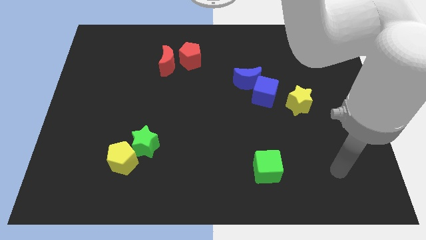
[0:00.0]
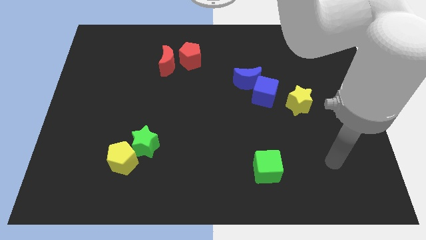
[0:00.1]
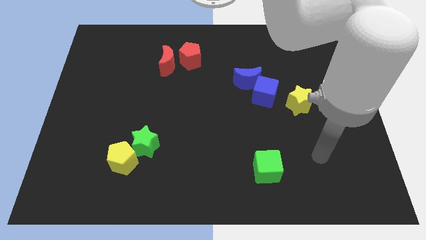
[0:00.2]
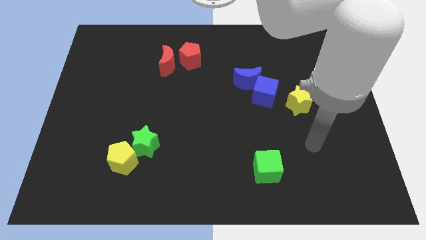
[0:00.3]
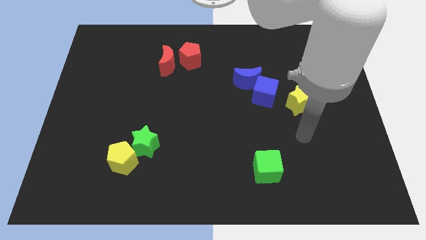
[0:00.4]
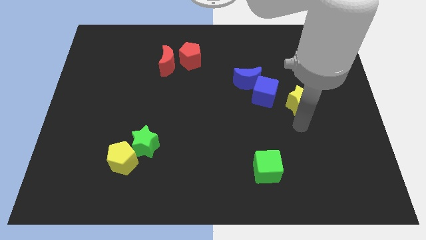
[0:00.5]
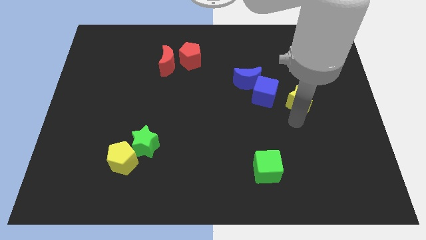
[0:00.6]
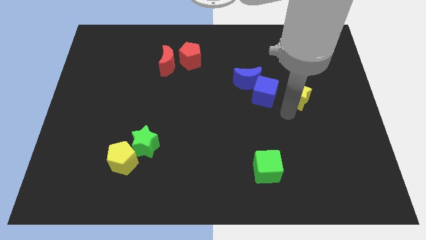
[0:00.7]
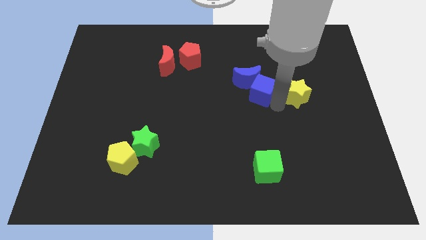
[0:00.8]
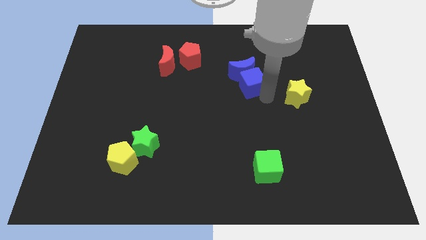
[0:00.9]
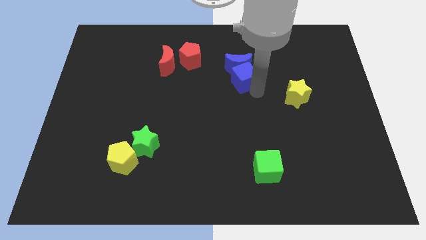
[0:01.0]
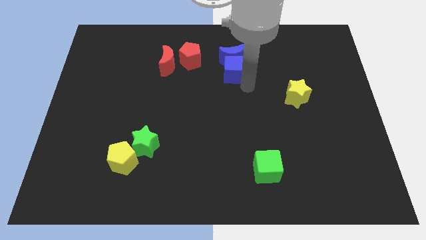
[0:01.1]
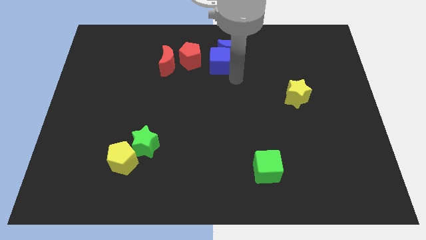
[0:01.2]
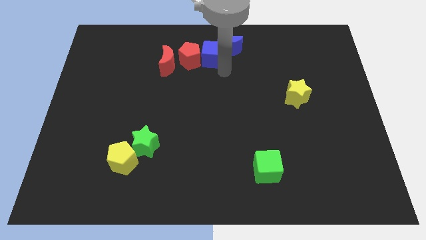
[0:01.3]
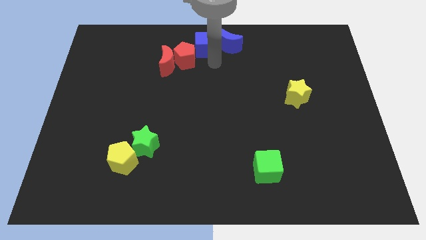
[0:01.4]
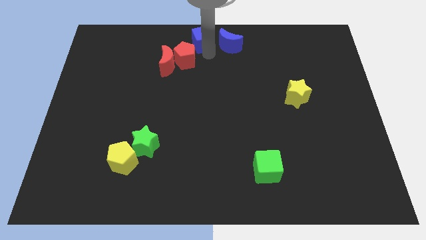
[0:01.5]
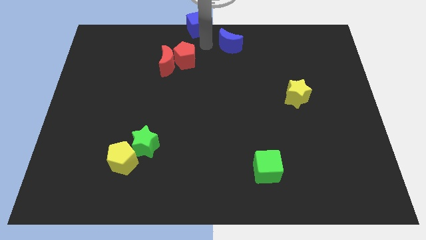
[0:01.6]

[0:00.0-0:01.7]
separate the blue moon from the blue cube

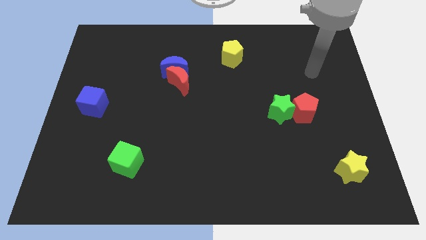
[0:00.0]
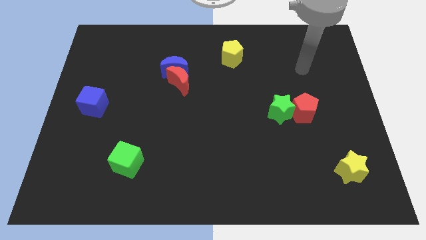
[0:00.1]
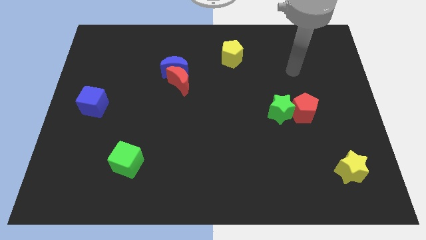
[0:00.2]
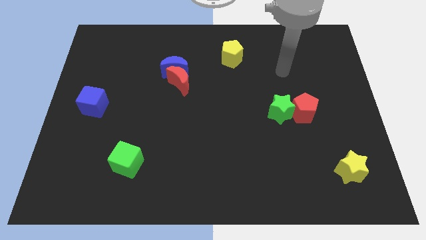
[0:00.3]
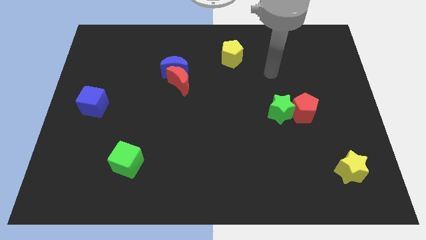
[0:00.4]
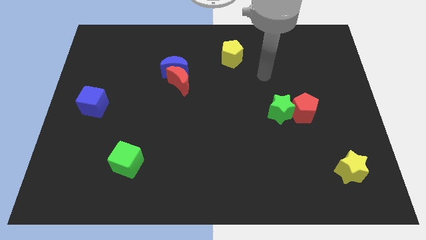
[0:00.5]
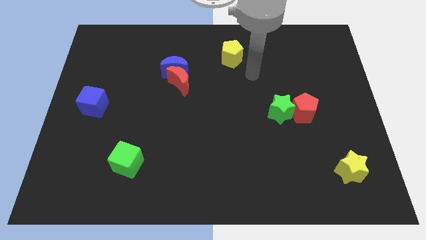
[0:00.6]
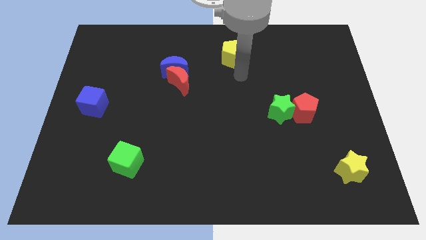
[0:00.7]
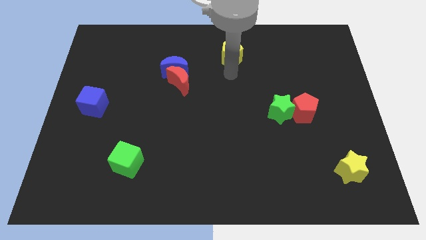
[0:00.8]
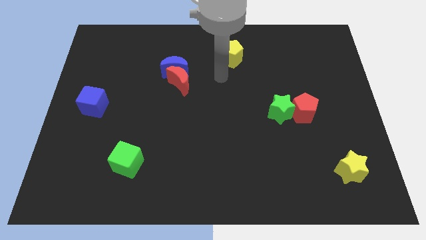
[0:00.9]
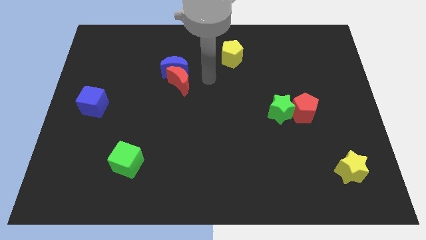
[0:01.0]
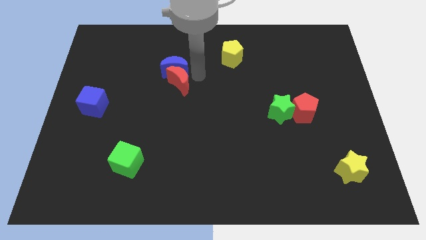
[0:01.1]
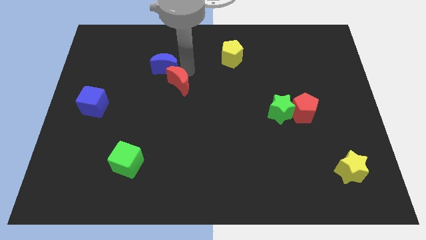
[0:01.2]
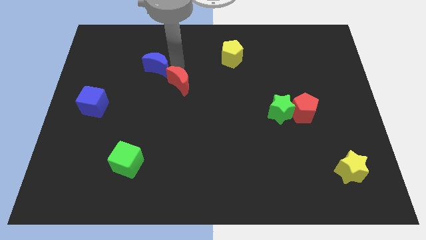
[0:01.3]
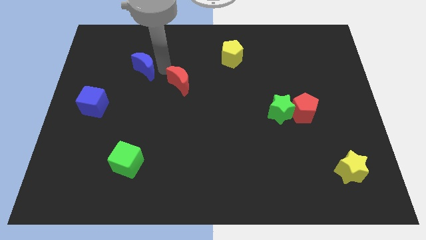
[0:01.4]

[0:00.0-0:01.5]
move the red moon away from the blue moon

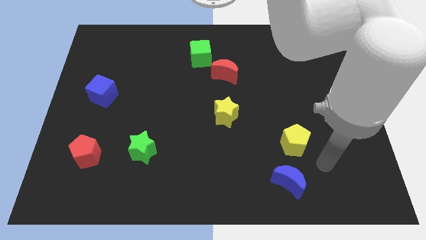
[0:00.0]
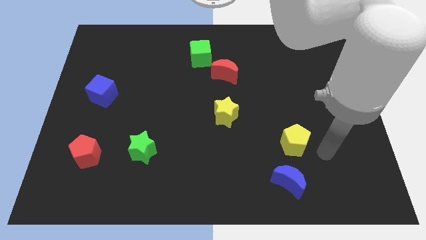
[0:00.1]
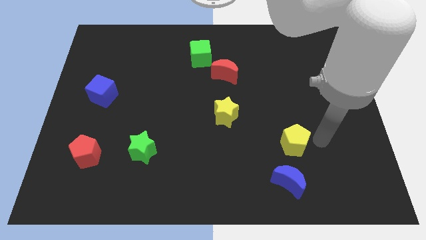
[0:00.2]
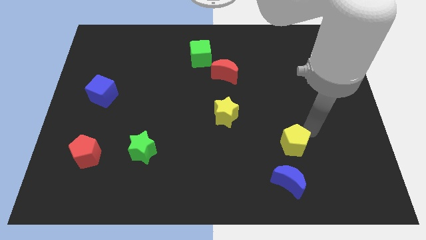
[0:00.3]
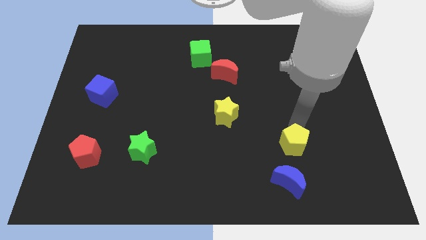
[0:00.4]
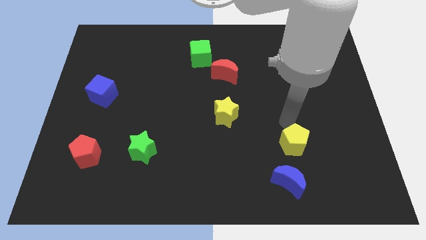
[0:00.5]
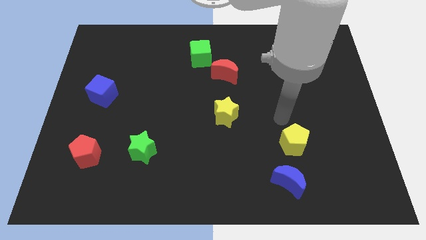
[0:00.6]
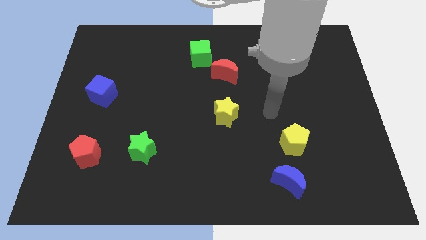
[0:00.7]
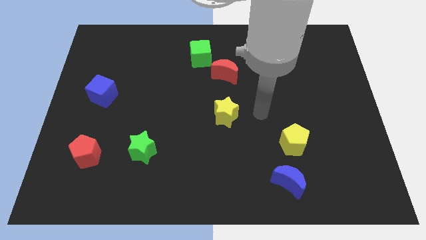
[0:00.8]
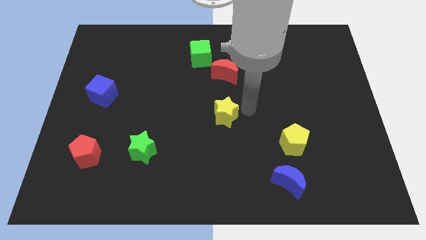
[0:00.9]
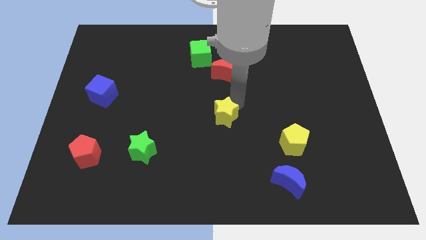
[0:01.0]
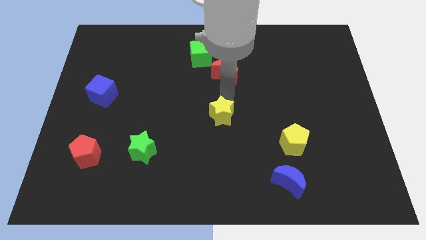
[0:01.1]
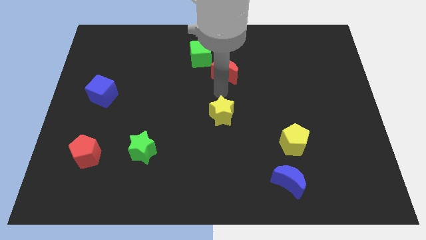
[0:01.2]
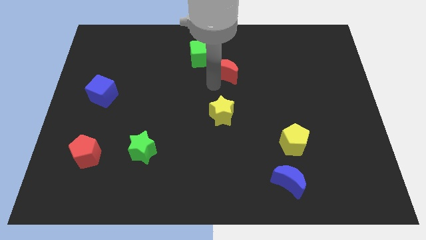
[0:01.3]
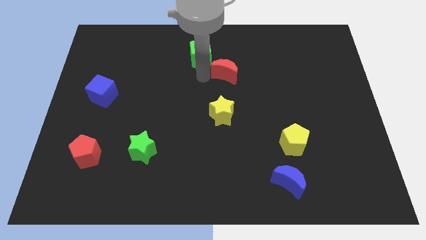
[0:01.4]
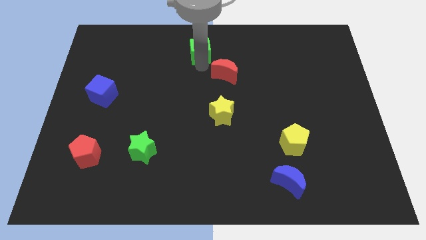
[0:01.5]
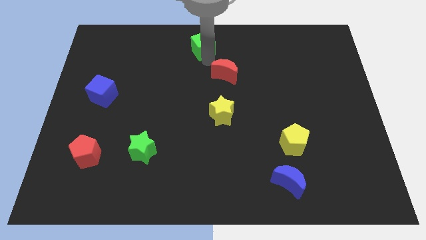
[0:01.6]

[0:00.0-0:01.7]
move the red moon away from the green cube

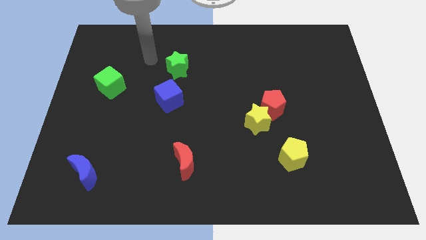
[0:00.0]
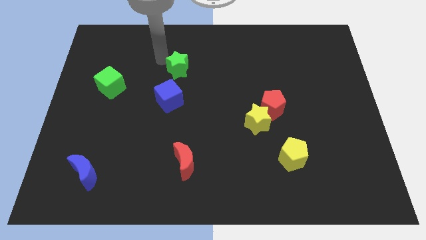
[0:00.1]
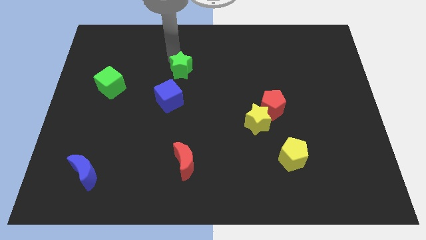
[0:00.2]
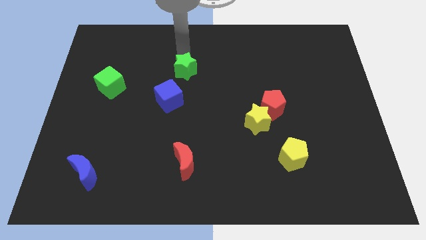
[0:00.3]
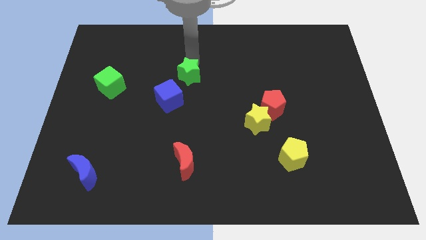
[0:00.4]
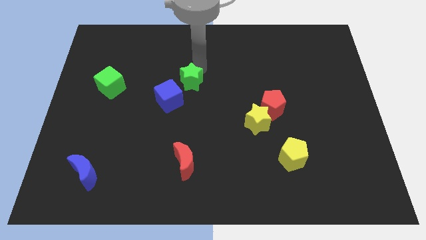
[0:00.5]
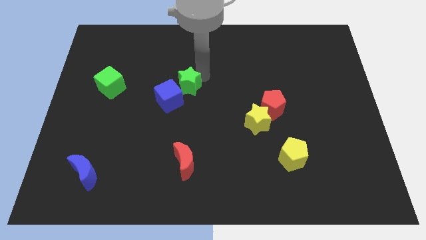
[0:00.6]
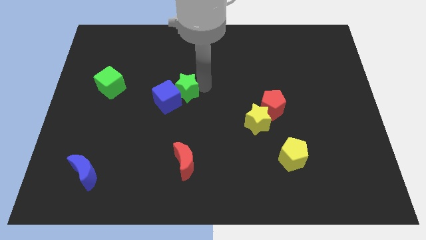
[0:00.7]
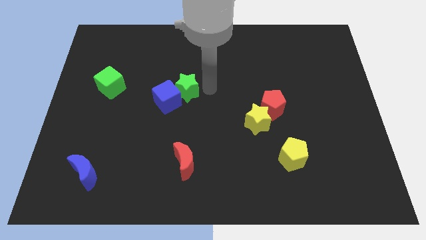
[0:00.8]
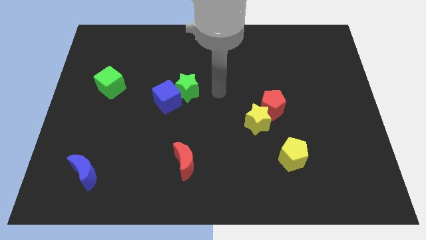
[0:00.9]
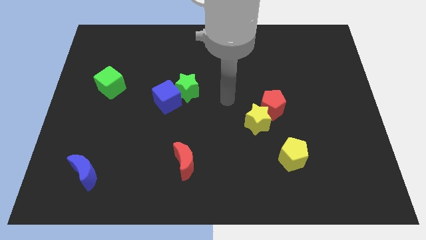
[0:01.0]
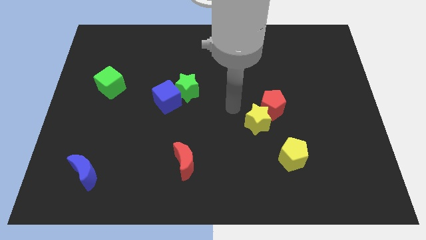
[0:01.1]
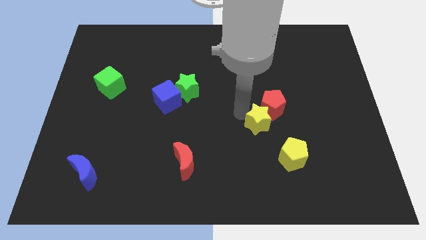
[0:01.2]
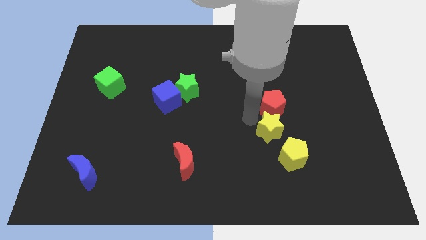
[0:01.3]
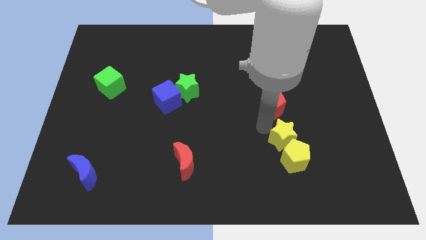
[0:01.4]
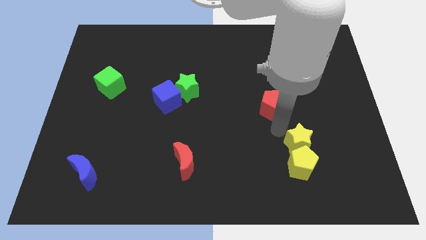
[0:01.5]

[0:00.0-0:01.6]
pull the red pentagon apart from the yellow star

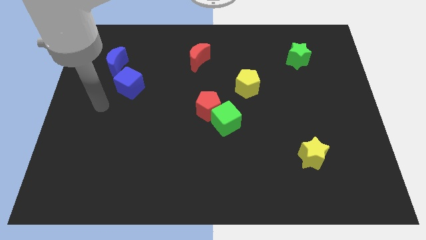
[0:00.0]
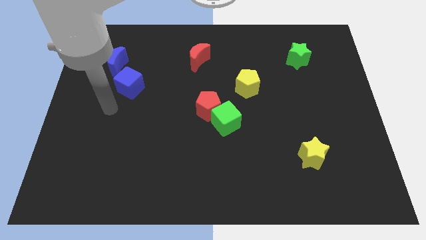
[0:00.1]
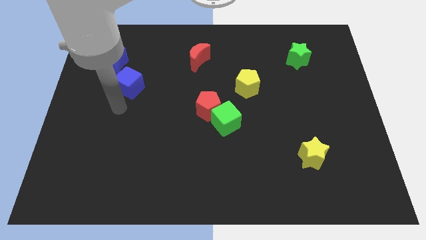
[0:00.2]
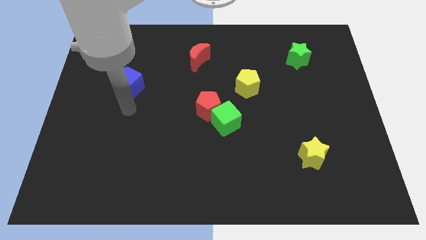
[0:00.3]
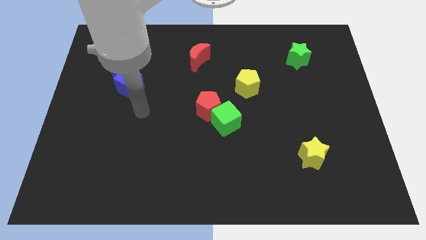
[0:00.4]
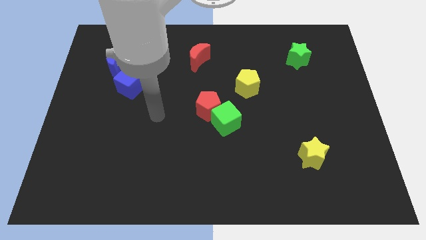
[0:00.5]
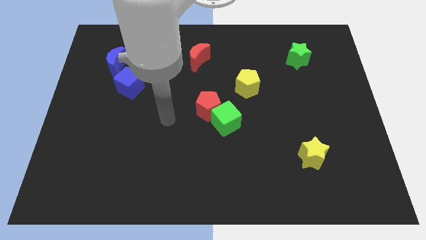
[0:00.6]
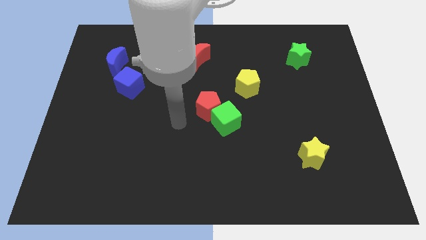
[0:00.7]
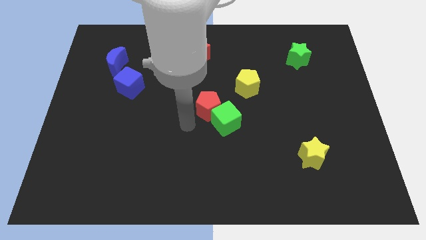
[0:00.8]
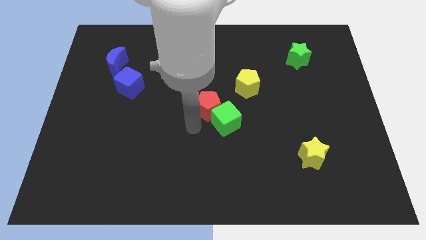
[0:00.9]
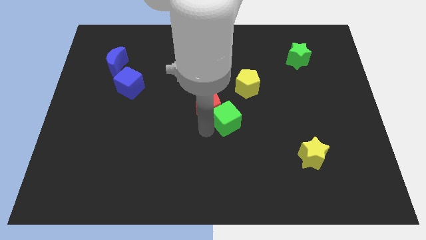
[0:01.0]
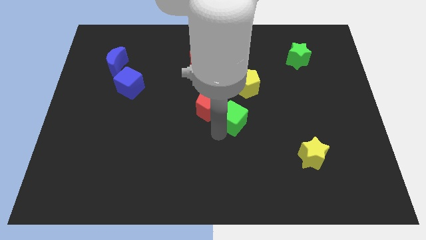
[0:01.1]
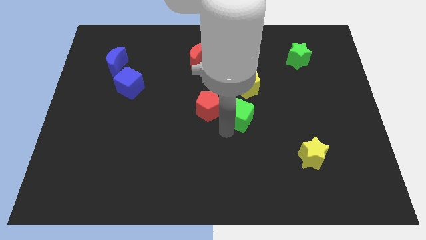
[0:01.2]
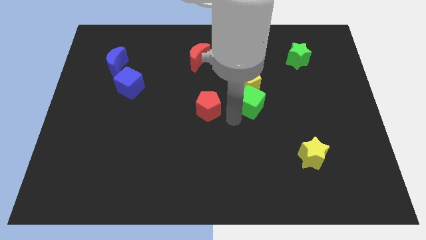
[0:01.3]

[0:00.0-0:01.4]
pull the red pentagon apart from the green cube

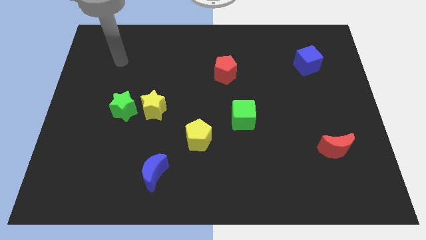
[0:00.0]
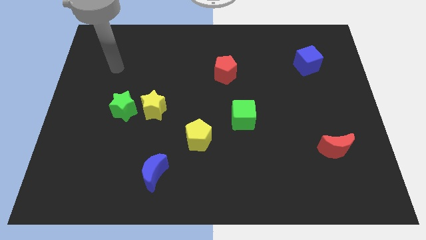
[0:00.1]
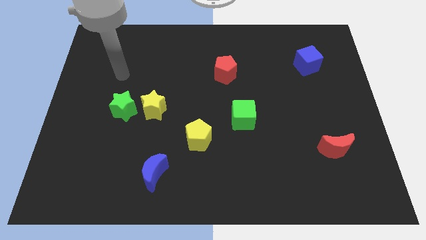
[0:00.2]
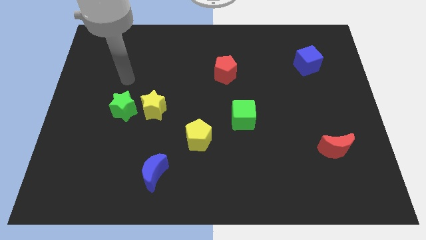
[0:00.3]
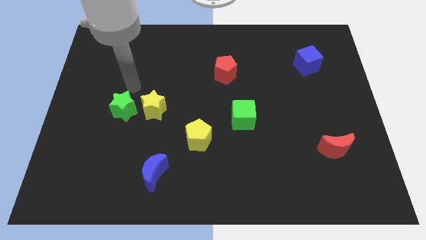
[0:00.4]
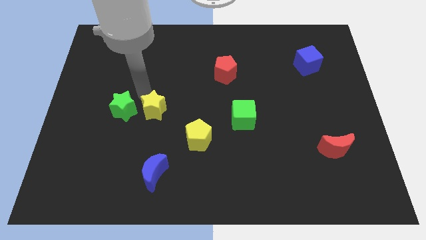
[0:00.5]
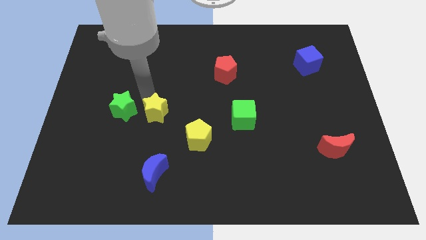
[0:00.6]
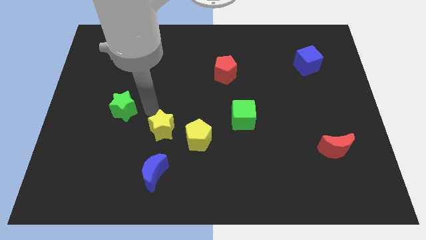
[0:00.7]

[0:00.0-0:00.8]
pull the green star apart from the yellow star

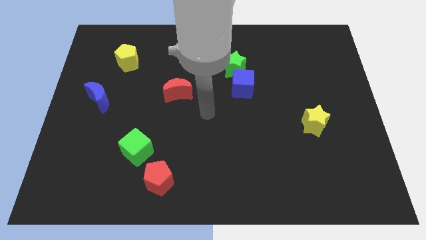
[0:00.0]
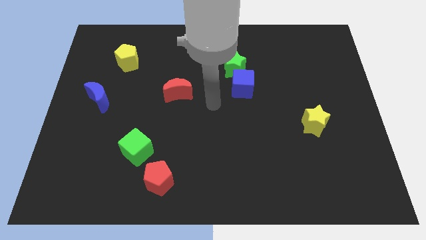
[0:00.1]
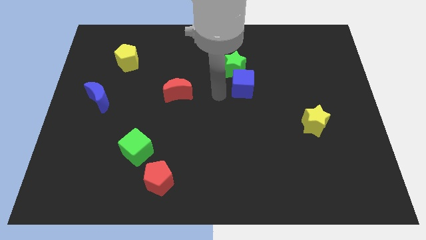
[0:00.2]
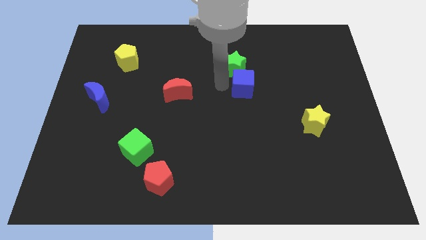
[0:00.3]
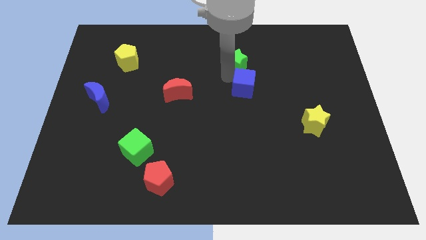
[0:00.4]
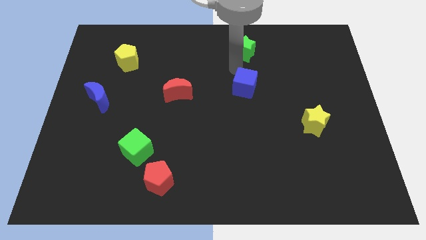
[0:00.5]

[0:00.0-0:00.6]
move the blue cube away from the green star
